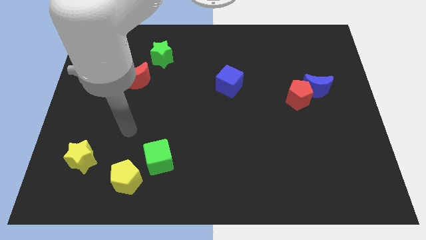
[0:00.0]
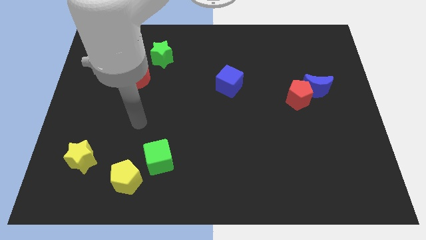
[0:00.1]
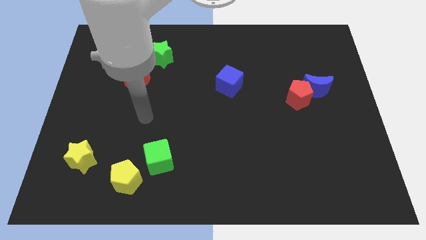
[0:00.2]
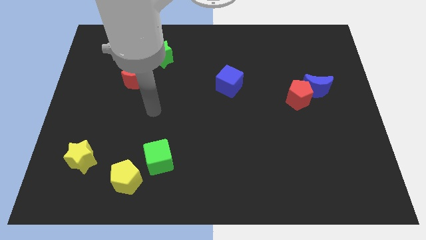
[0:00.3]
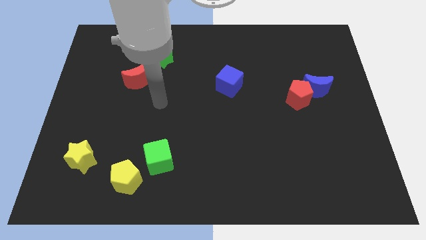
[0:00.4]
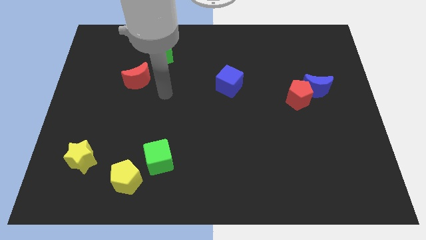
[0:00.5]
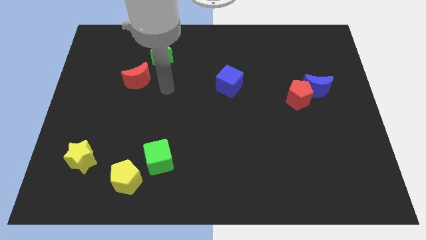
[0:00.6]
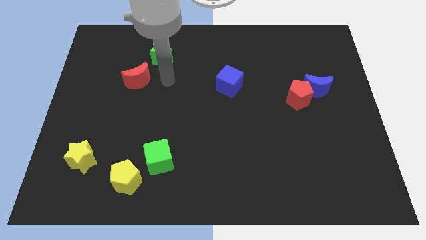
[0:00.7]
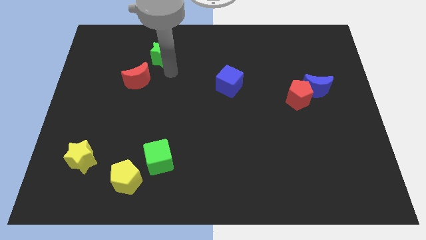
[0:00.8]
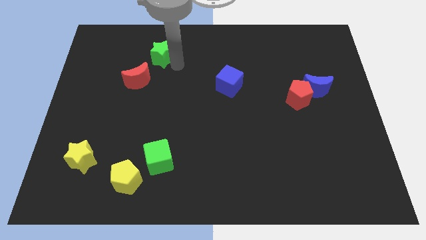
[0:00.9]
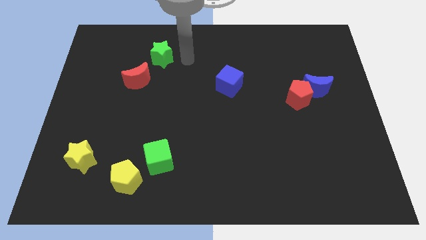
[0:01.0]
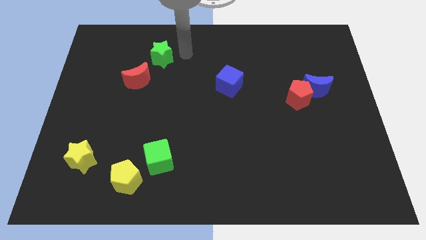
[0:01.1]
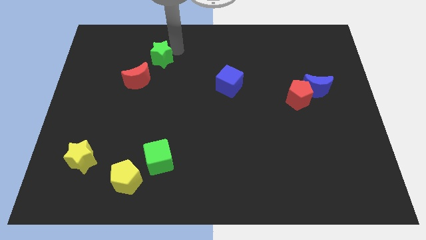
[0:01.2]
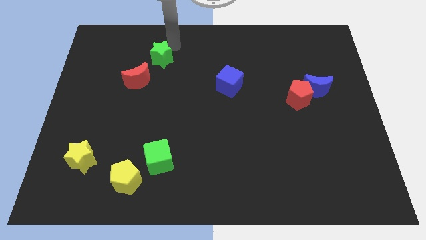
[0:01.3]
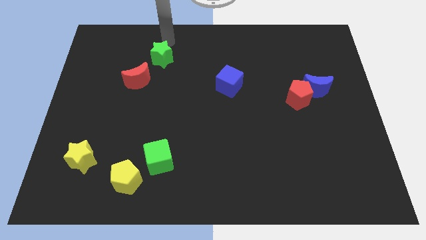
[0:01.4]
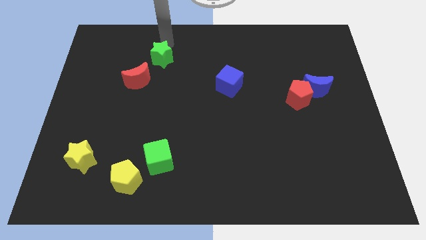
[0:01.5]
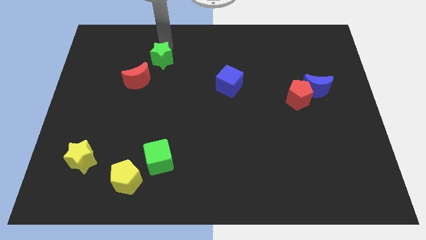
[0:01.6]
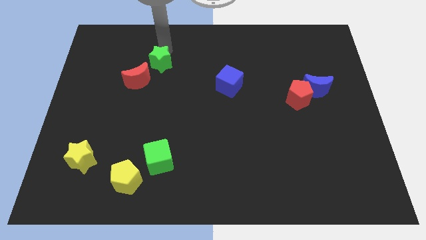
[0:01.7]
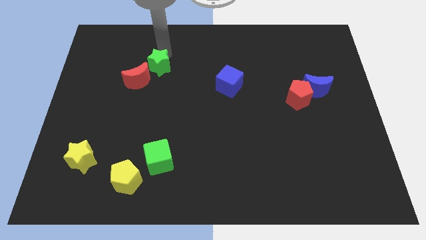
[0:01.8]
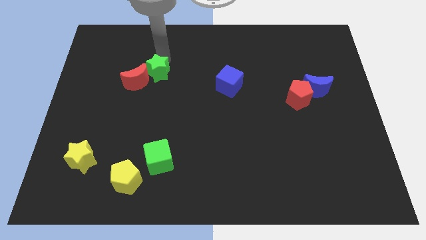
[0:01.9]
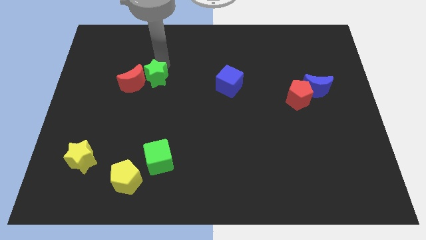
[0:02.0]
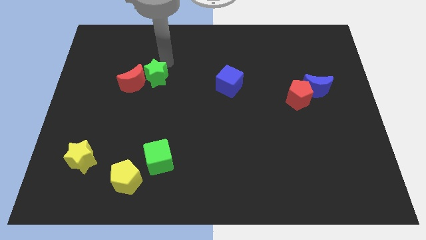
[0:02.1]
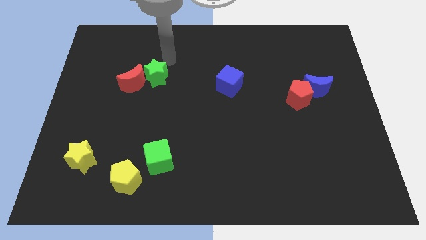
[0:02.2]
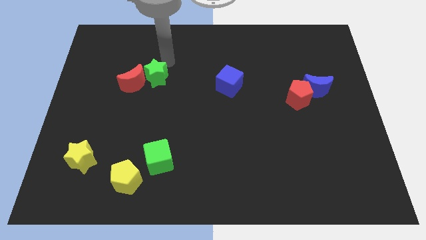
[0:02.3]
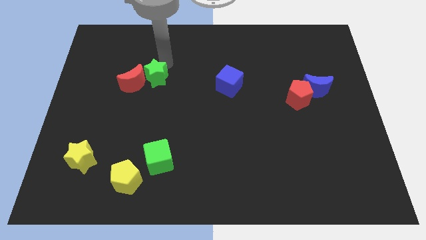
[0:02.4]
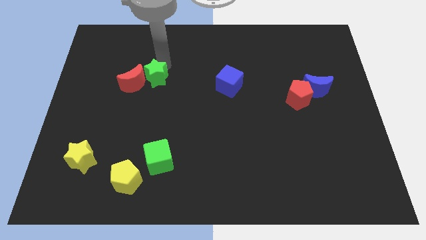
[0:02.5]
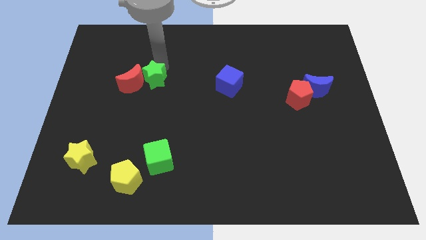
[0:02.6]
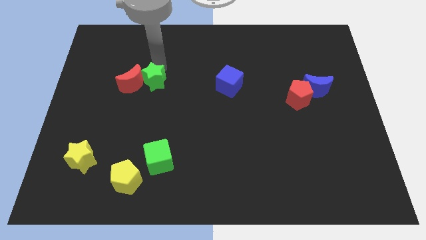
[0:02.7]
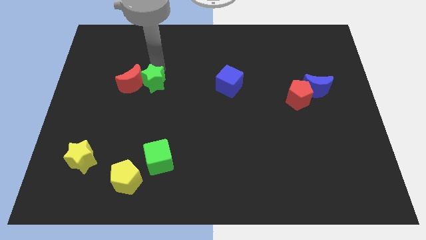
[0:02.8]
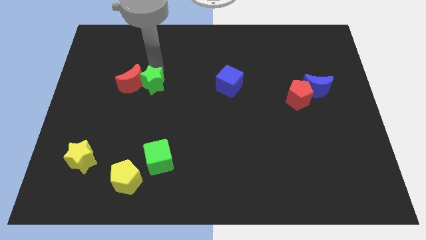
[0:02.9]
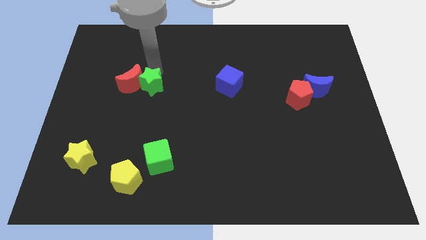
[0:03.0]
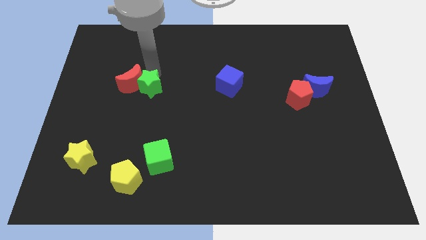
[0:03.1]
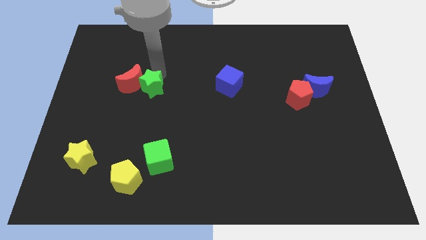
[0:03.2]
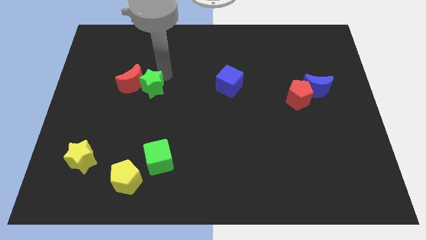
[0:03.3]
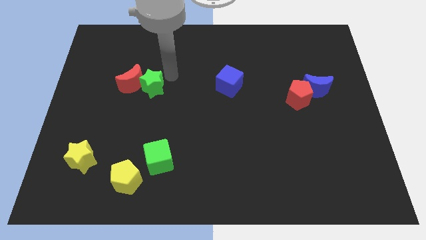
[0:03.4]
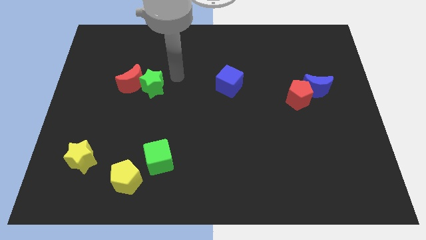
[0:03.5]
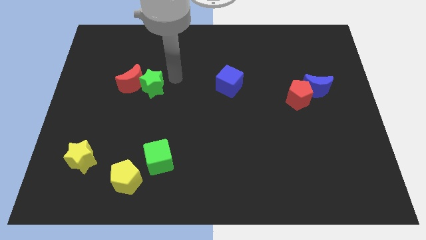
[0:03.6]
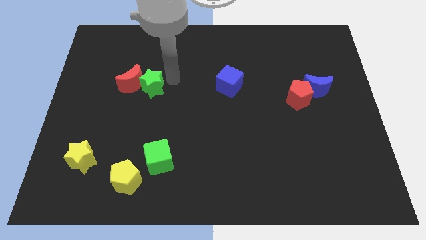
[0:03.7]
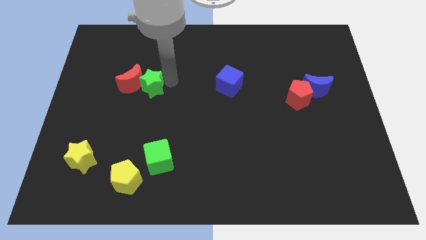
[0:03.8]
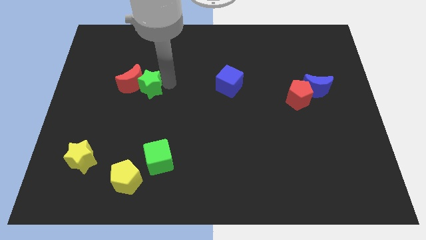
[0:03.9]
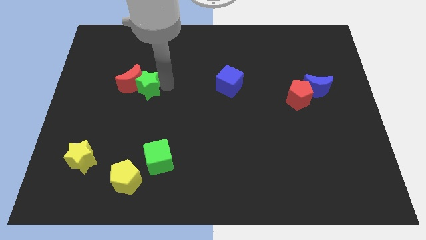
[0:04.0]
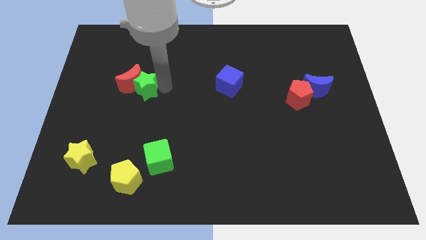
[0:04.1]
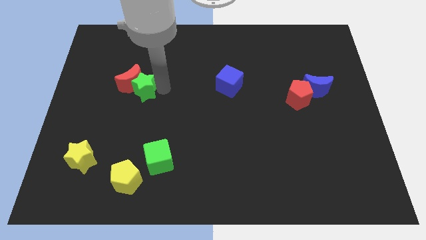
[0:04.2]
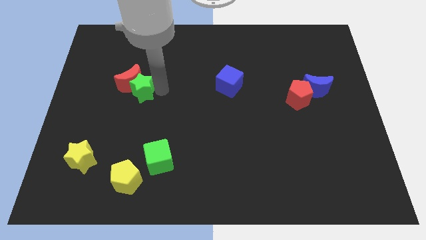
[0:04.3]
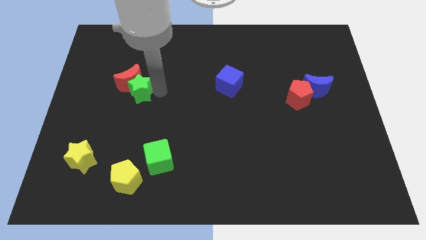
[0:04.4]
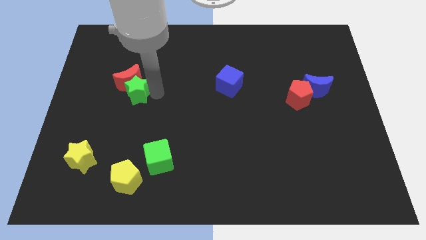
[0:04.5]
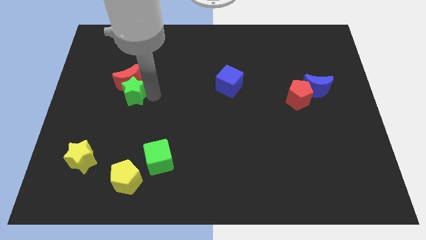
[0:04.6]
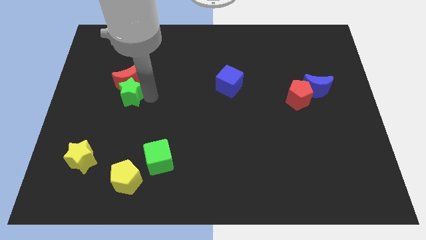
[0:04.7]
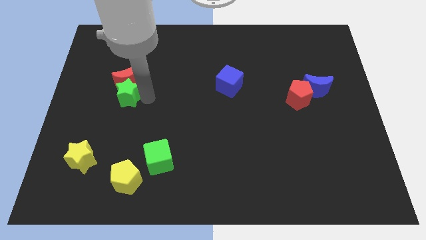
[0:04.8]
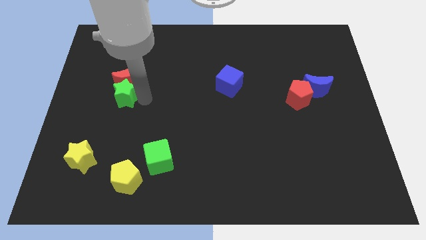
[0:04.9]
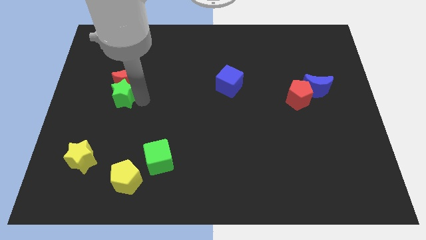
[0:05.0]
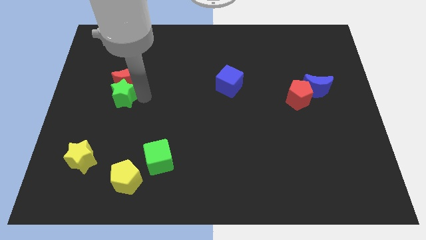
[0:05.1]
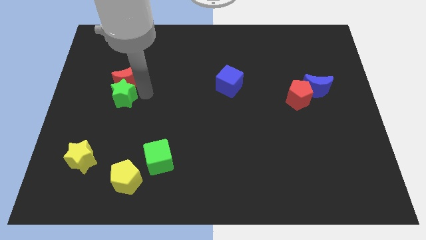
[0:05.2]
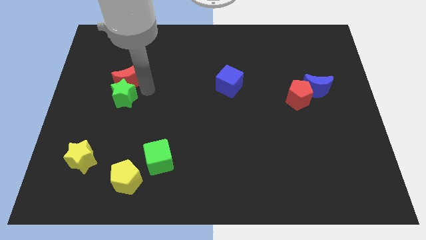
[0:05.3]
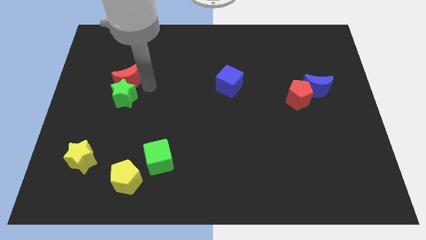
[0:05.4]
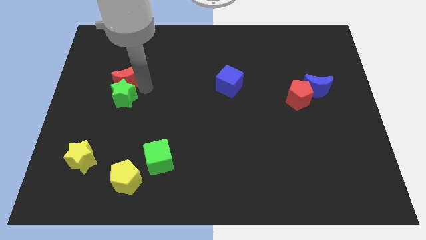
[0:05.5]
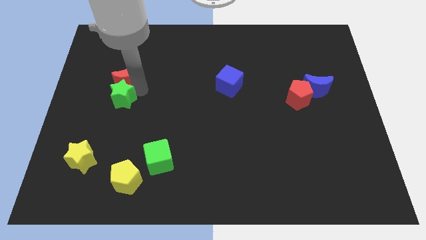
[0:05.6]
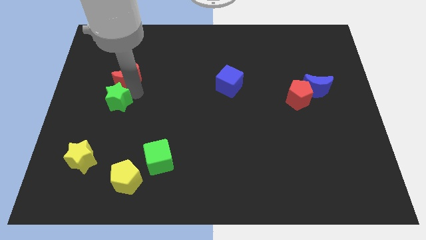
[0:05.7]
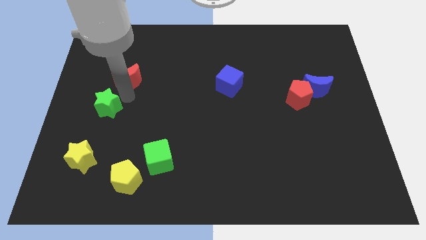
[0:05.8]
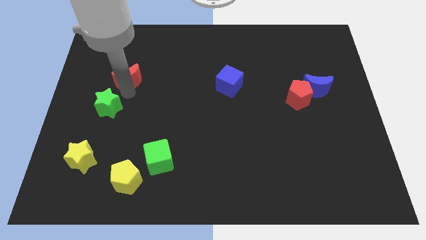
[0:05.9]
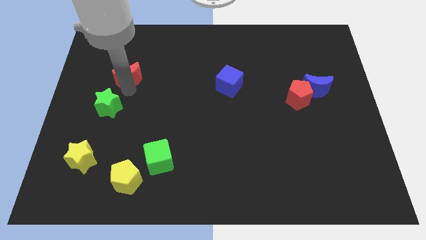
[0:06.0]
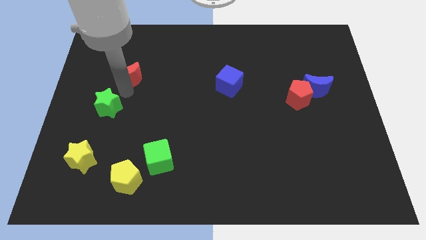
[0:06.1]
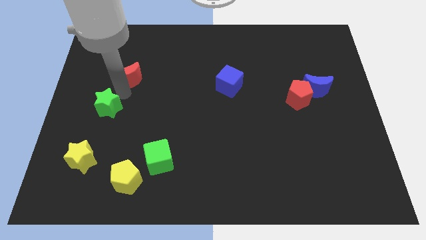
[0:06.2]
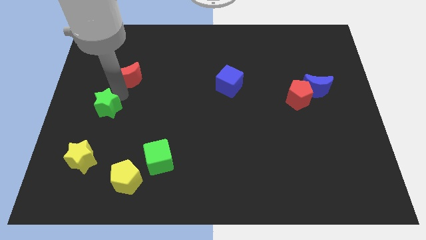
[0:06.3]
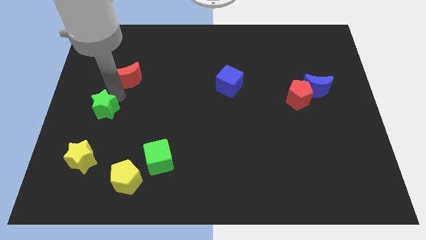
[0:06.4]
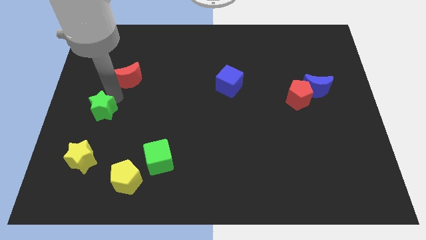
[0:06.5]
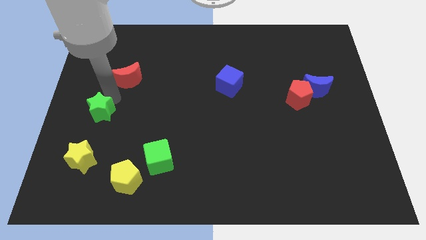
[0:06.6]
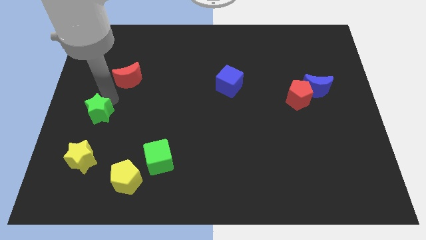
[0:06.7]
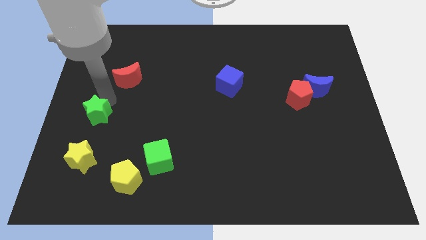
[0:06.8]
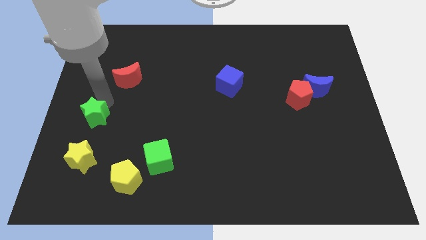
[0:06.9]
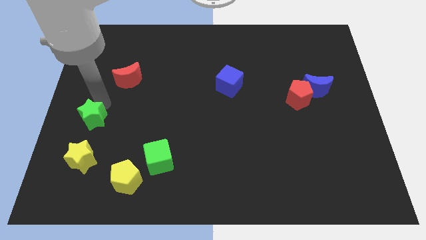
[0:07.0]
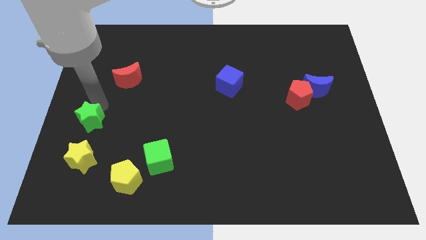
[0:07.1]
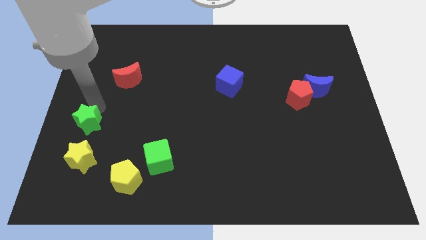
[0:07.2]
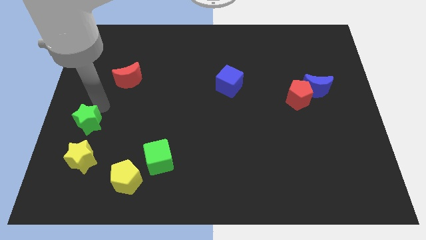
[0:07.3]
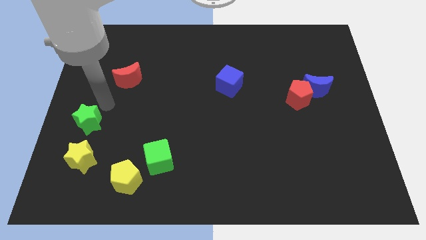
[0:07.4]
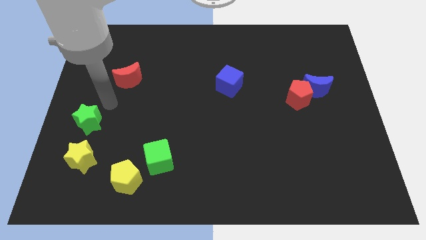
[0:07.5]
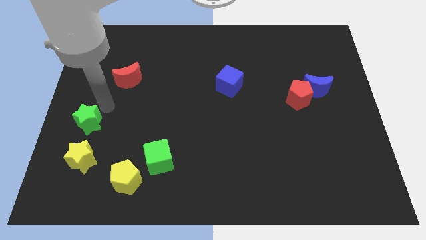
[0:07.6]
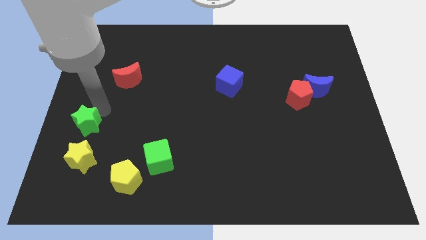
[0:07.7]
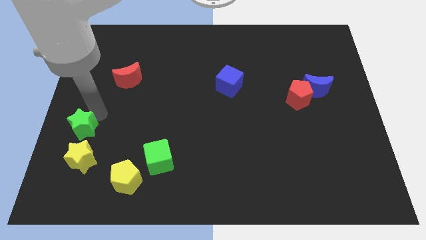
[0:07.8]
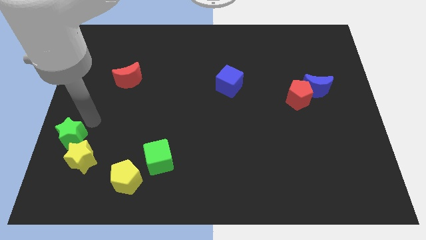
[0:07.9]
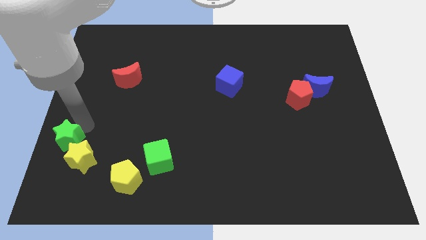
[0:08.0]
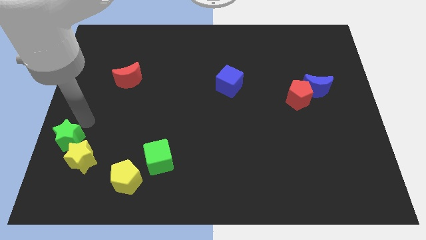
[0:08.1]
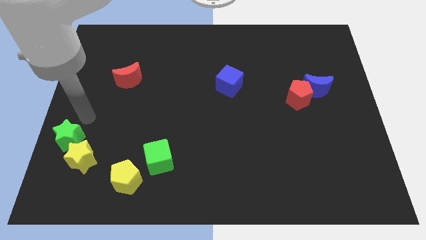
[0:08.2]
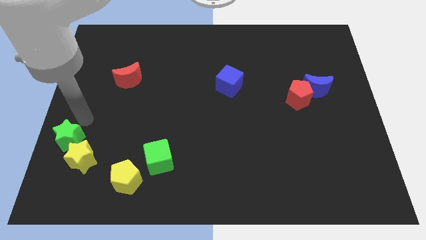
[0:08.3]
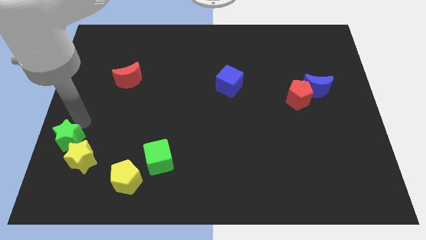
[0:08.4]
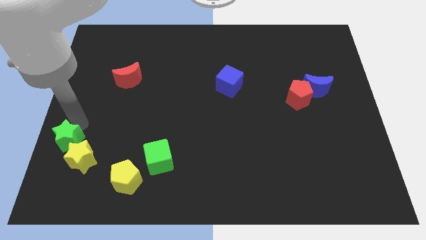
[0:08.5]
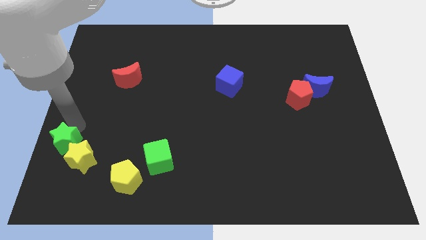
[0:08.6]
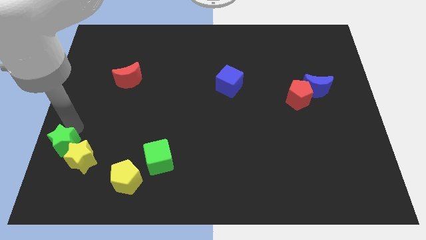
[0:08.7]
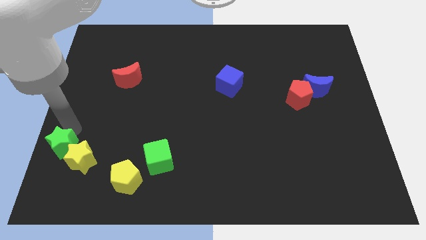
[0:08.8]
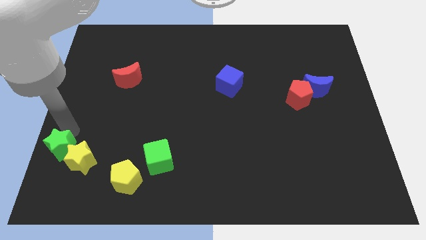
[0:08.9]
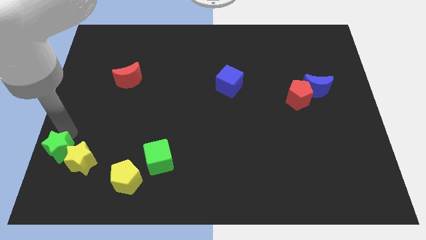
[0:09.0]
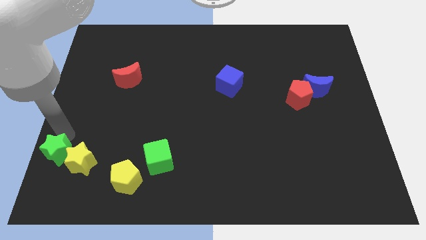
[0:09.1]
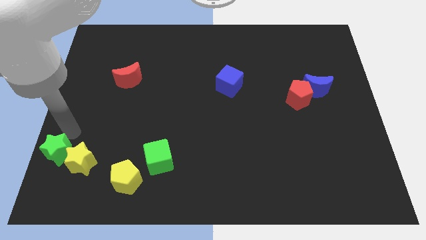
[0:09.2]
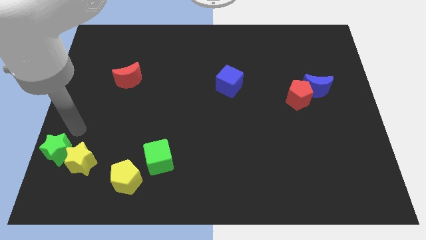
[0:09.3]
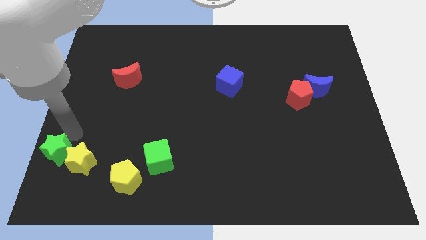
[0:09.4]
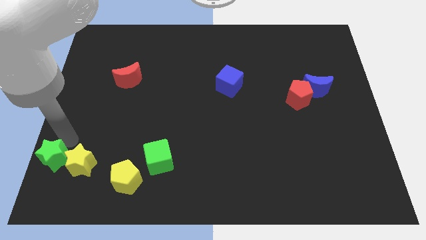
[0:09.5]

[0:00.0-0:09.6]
move the green star to the bottom left of the board
